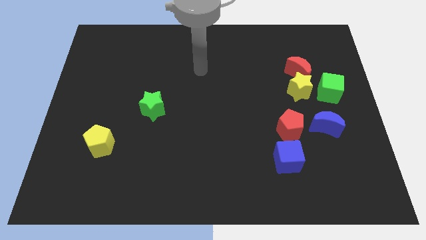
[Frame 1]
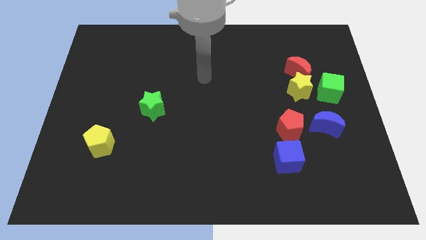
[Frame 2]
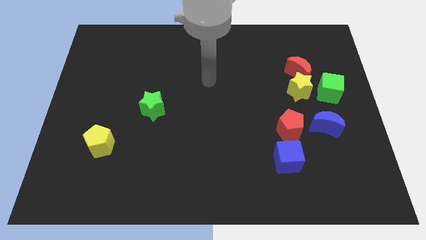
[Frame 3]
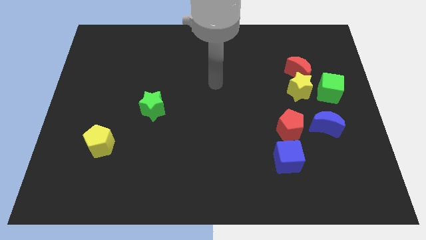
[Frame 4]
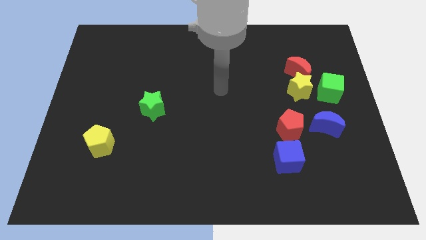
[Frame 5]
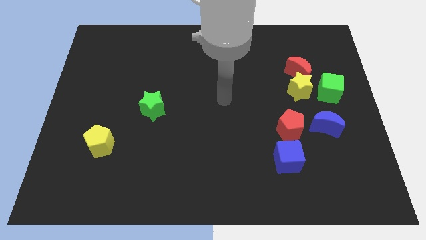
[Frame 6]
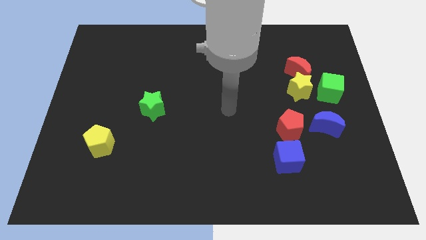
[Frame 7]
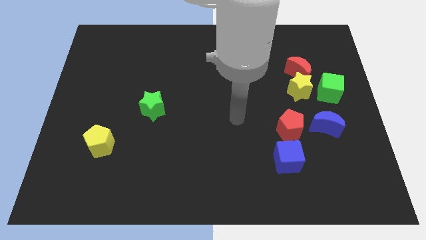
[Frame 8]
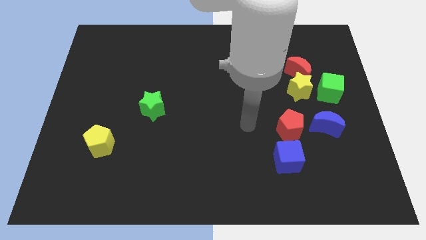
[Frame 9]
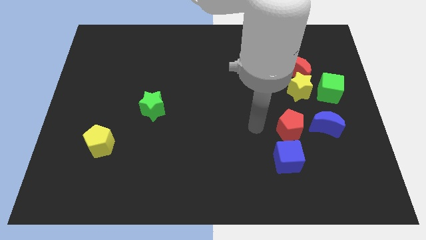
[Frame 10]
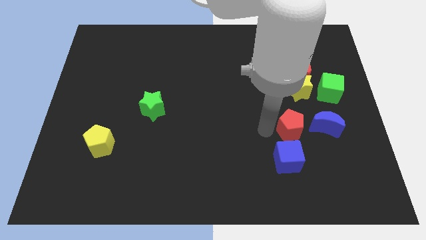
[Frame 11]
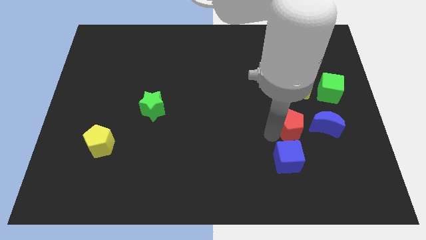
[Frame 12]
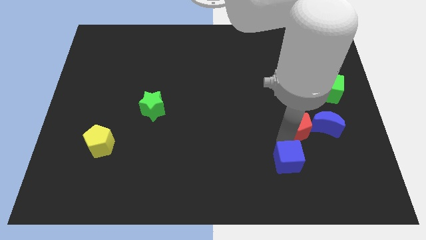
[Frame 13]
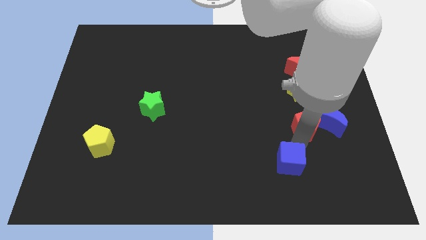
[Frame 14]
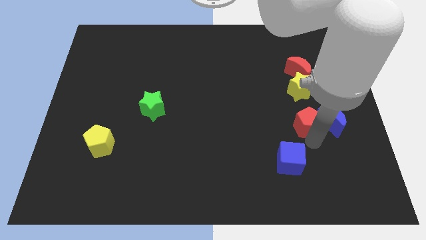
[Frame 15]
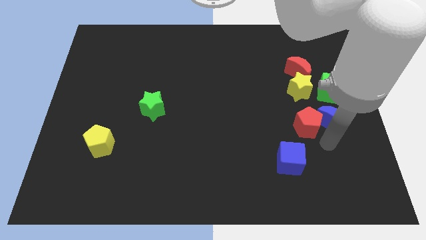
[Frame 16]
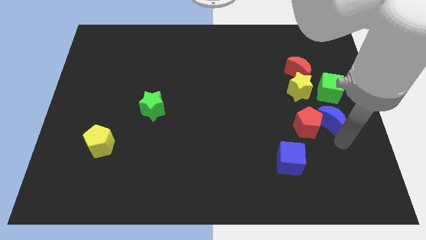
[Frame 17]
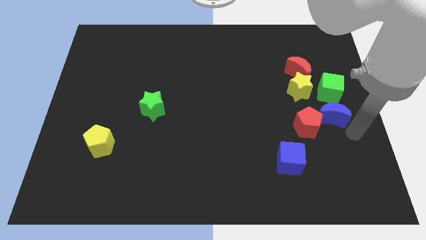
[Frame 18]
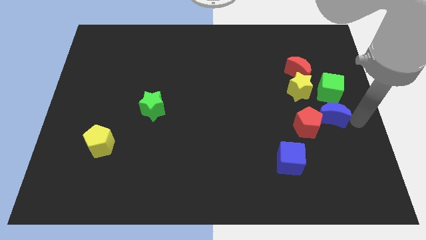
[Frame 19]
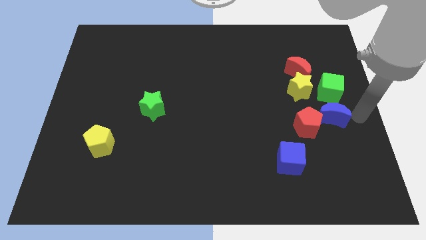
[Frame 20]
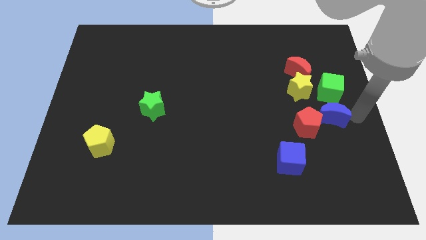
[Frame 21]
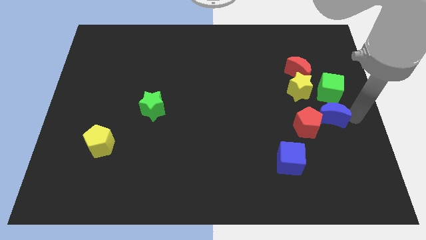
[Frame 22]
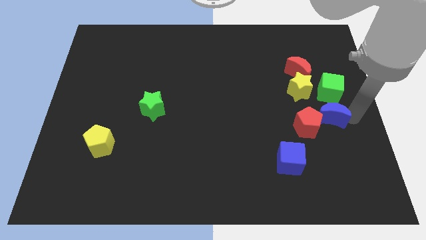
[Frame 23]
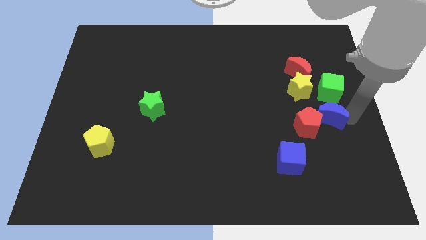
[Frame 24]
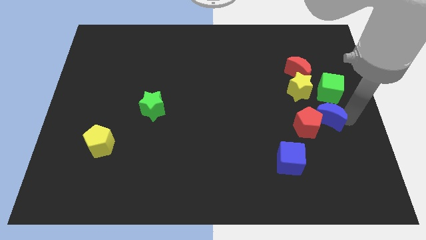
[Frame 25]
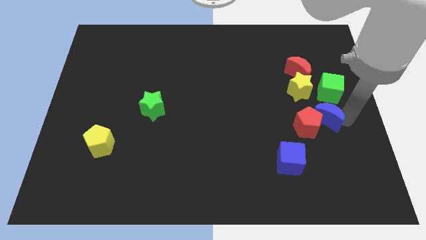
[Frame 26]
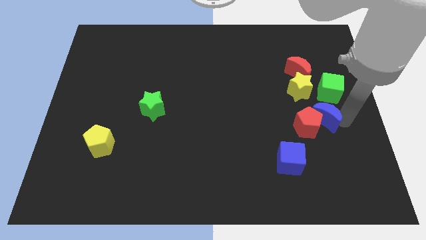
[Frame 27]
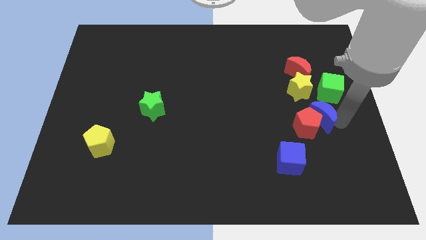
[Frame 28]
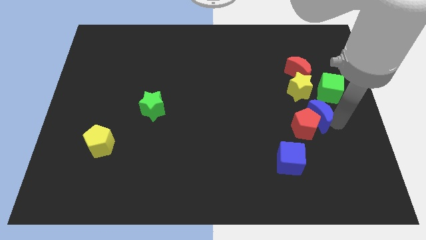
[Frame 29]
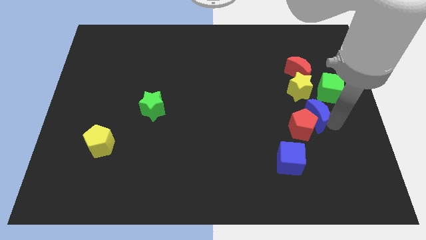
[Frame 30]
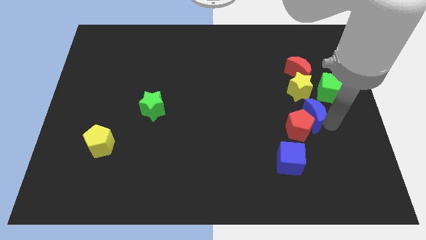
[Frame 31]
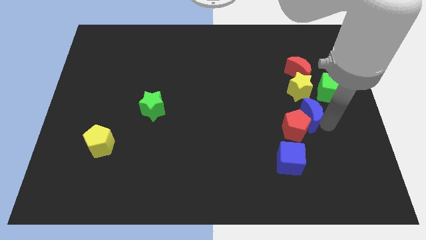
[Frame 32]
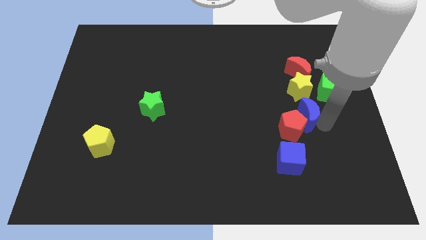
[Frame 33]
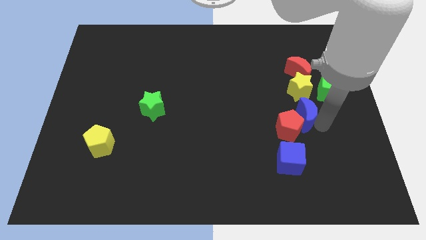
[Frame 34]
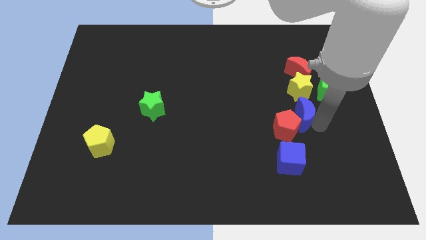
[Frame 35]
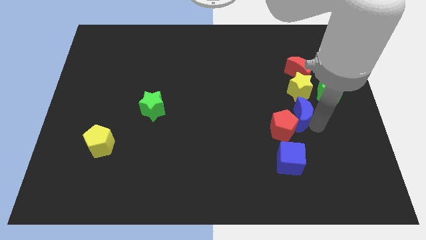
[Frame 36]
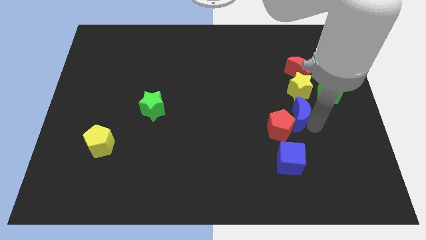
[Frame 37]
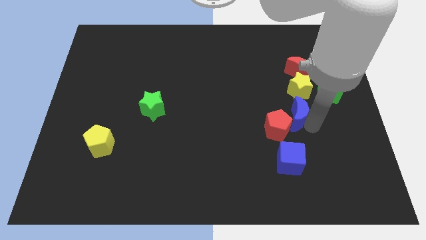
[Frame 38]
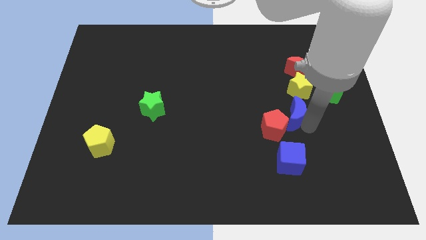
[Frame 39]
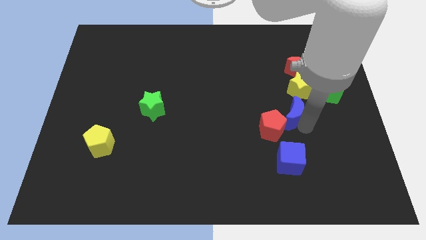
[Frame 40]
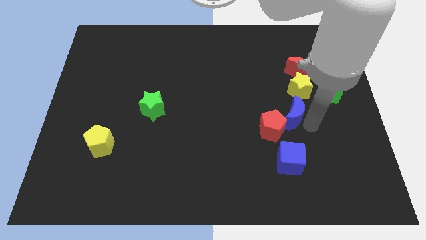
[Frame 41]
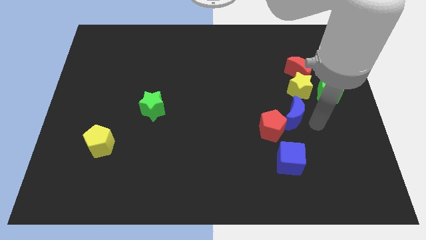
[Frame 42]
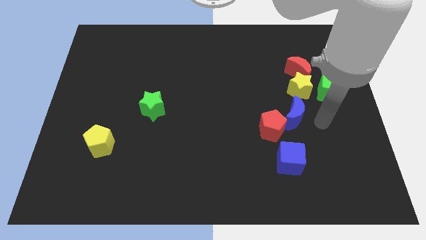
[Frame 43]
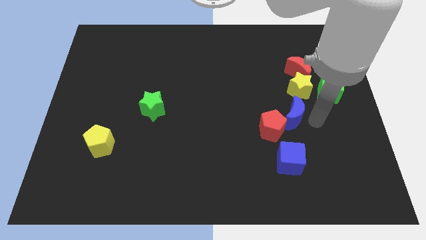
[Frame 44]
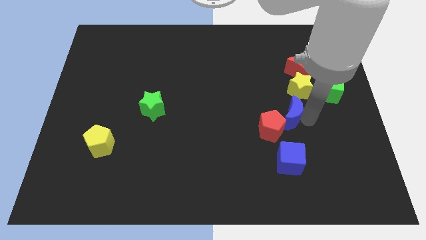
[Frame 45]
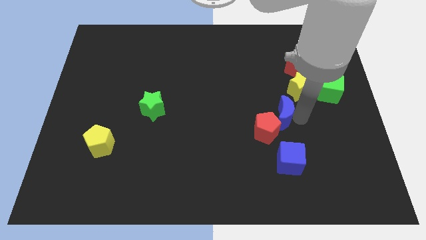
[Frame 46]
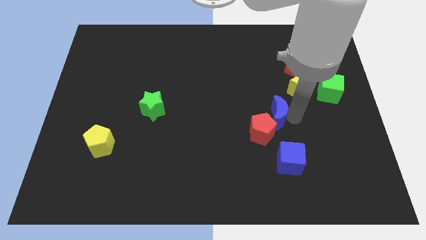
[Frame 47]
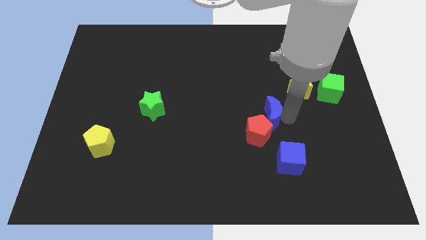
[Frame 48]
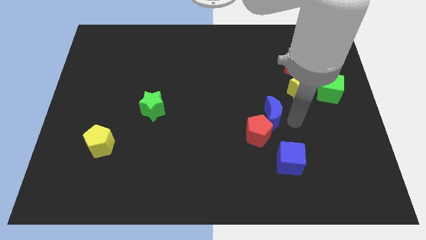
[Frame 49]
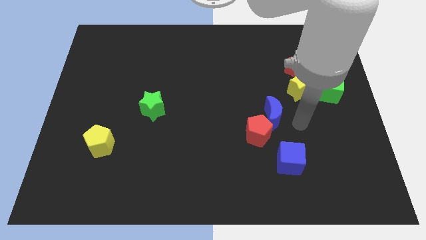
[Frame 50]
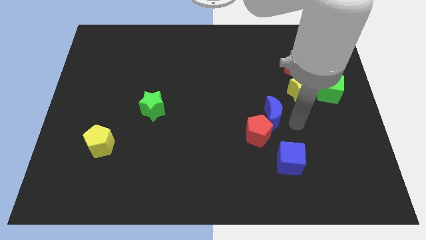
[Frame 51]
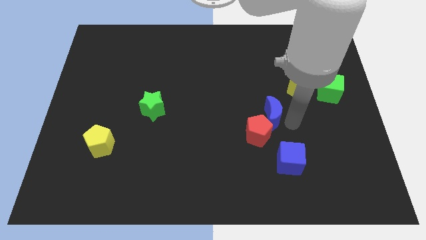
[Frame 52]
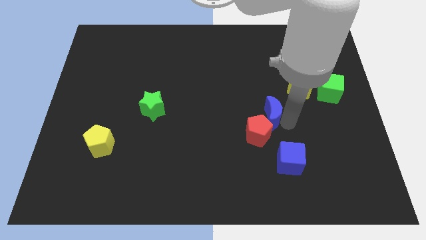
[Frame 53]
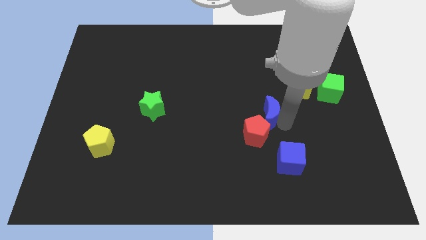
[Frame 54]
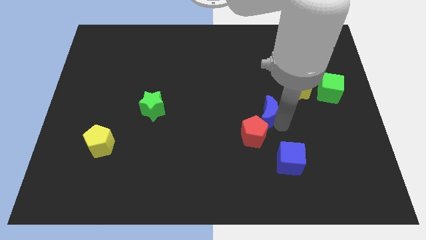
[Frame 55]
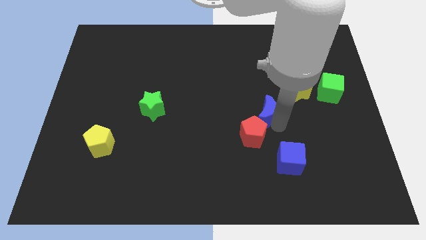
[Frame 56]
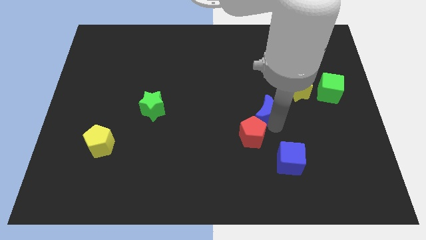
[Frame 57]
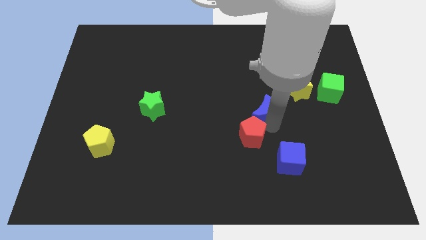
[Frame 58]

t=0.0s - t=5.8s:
move the blue moon to the middle of the board
